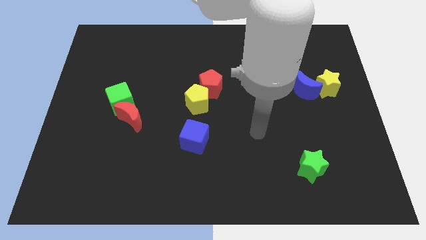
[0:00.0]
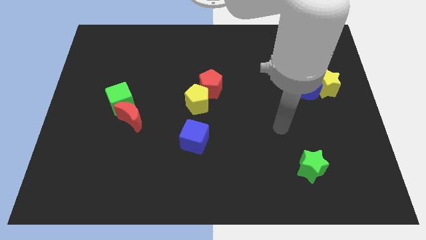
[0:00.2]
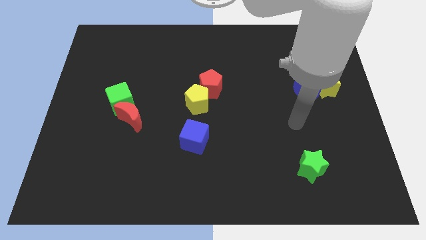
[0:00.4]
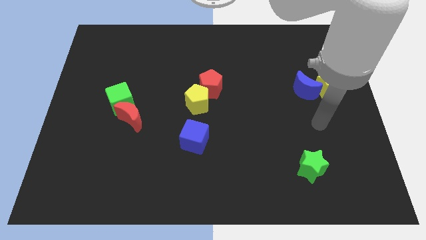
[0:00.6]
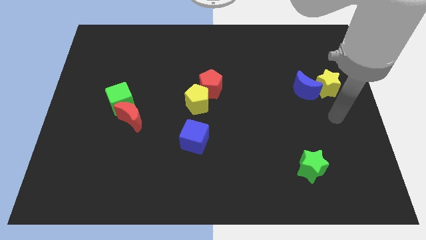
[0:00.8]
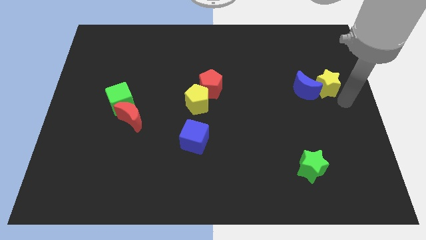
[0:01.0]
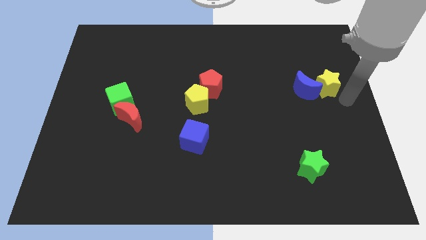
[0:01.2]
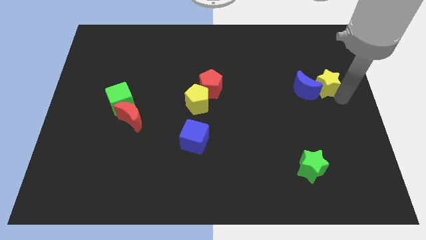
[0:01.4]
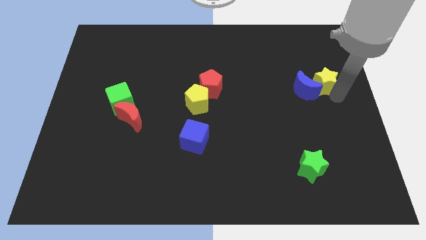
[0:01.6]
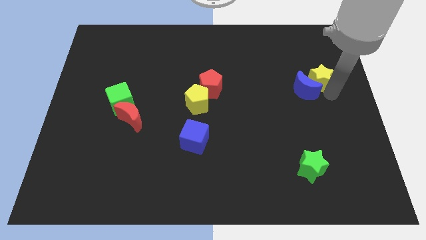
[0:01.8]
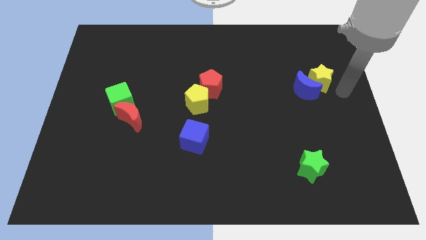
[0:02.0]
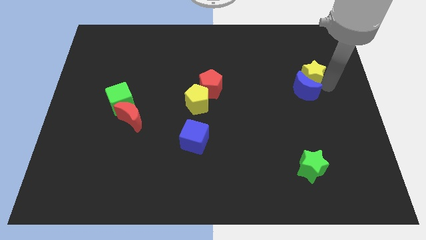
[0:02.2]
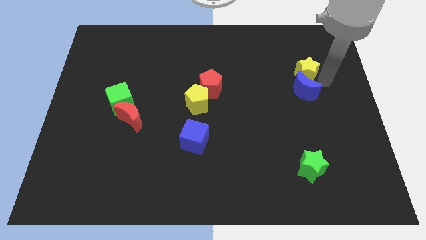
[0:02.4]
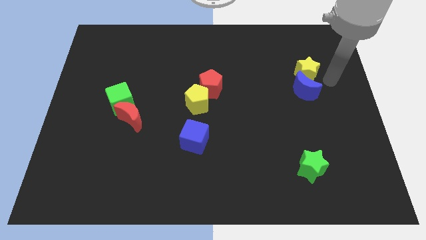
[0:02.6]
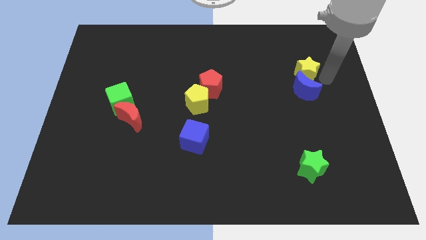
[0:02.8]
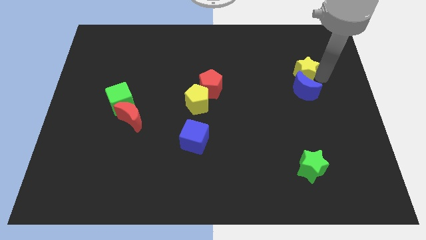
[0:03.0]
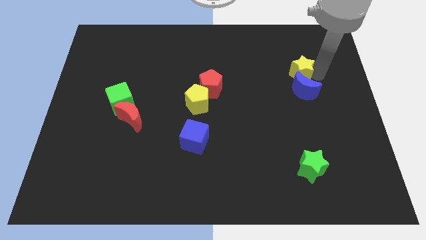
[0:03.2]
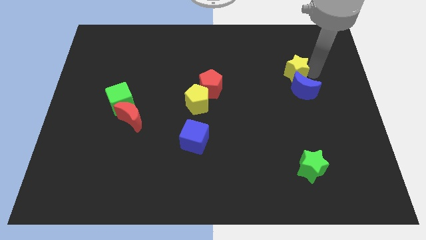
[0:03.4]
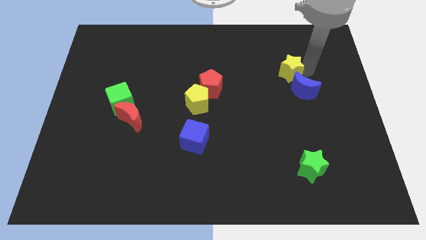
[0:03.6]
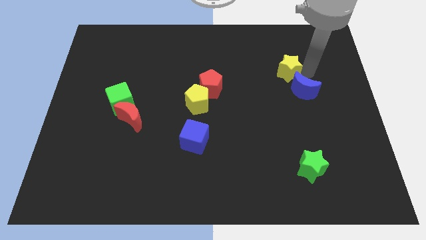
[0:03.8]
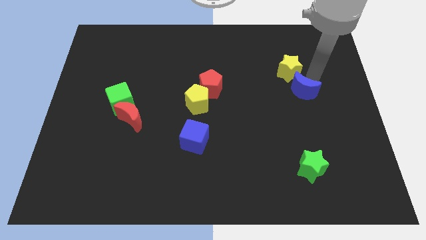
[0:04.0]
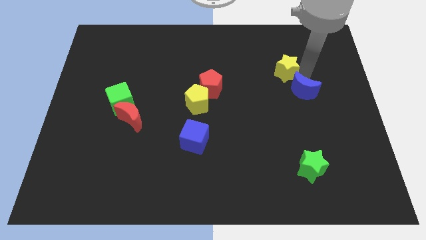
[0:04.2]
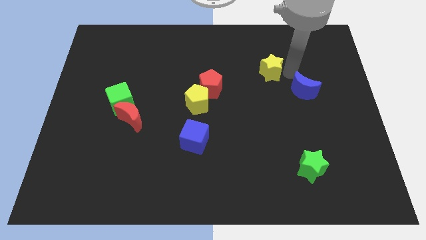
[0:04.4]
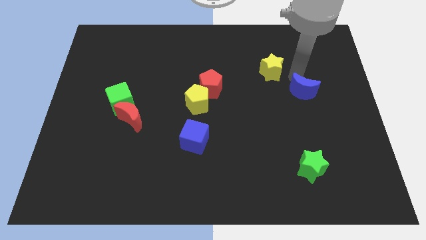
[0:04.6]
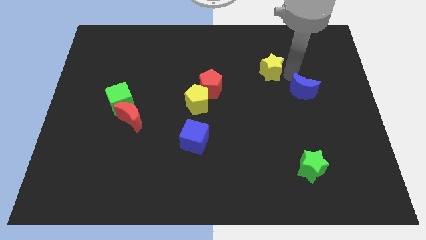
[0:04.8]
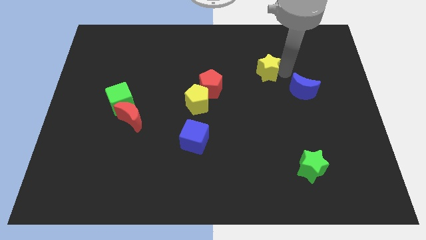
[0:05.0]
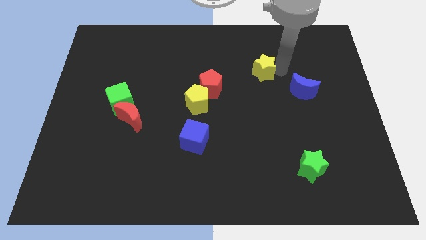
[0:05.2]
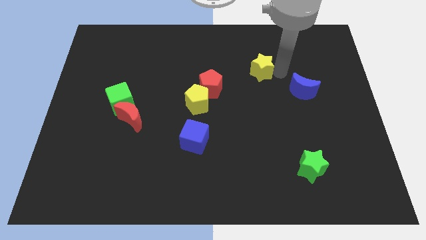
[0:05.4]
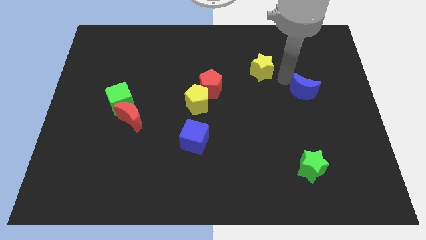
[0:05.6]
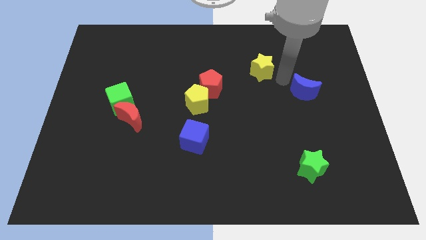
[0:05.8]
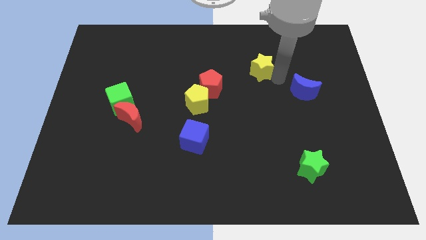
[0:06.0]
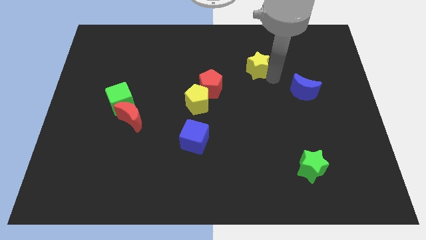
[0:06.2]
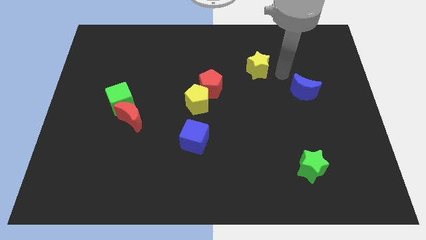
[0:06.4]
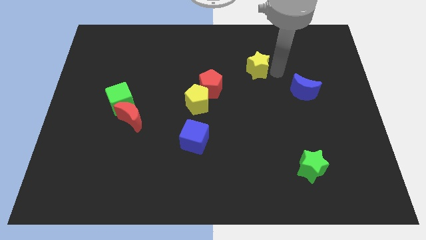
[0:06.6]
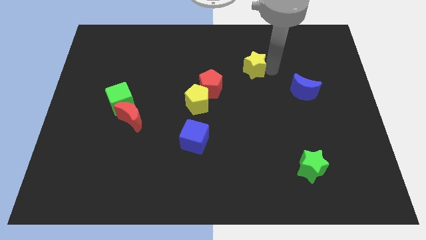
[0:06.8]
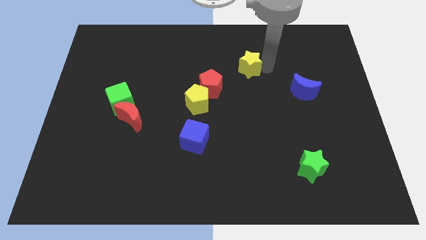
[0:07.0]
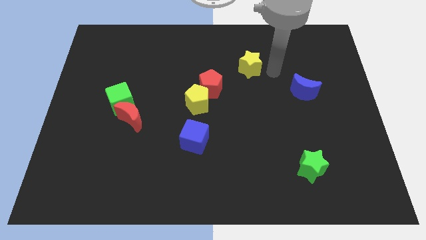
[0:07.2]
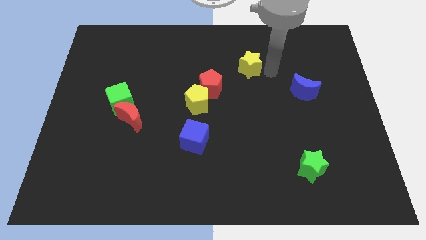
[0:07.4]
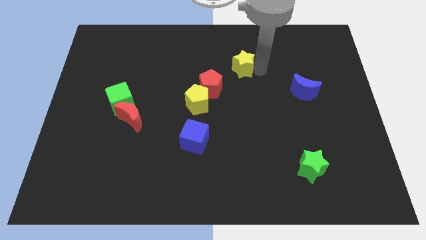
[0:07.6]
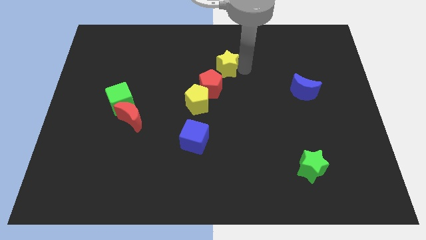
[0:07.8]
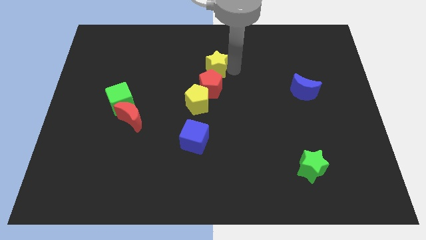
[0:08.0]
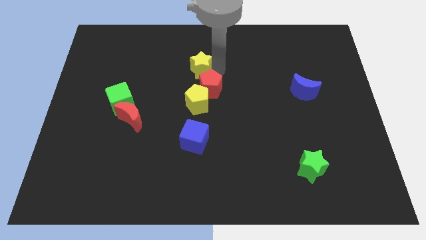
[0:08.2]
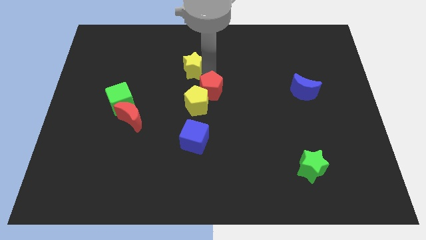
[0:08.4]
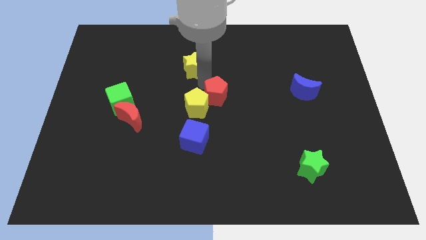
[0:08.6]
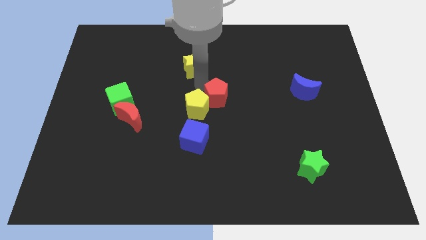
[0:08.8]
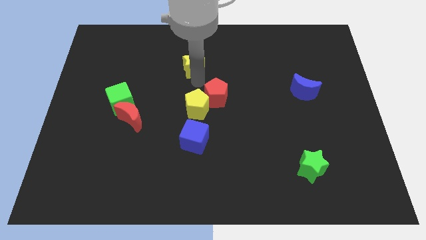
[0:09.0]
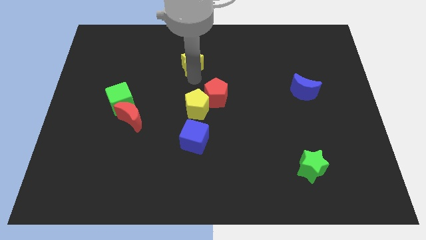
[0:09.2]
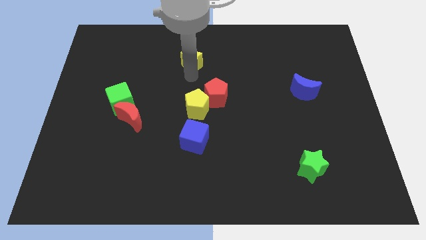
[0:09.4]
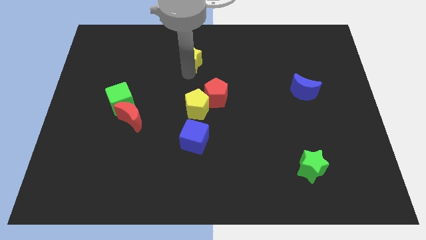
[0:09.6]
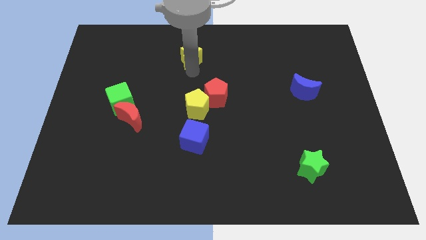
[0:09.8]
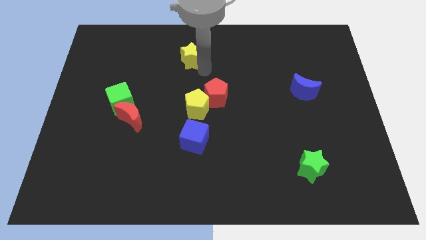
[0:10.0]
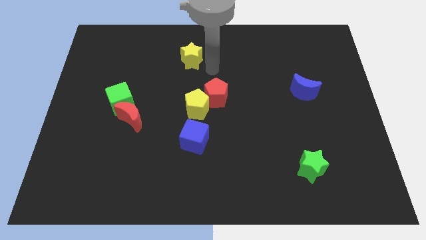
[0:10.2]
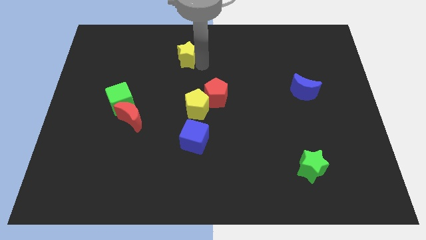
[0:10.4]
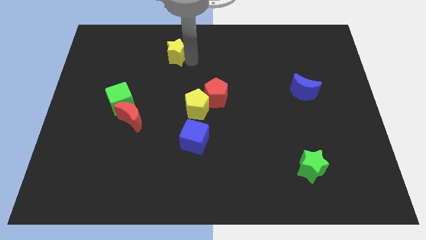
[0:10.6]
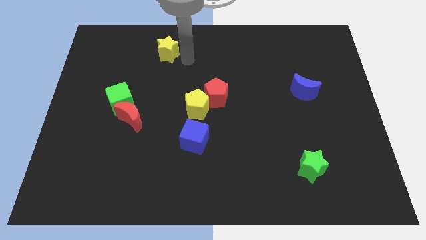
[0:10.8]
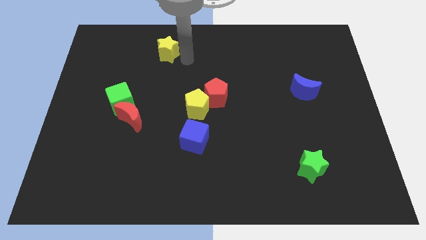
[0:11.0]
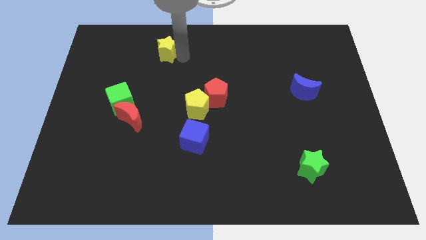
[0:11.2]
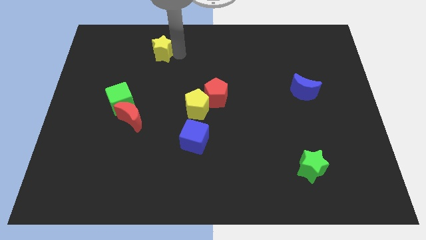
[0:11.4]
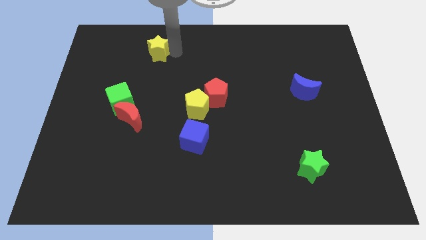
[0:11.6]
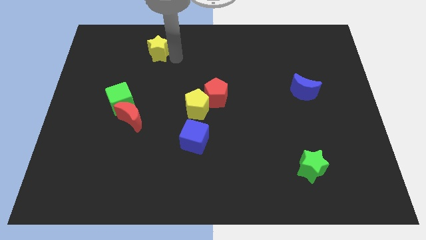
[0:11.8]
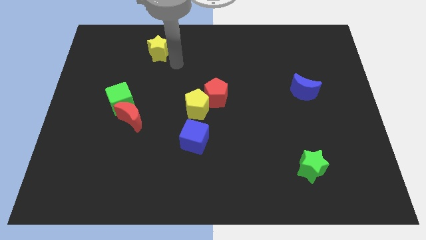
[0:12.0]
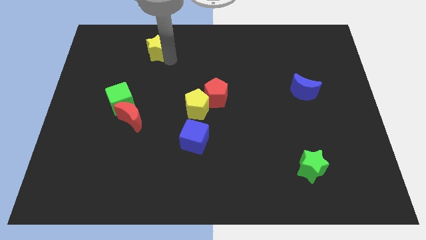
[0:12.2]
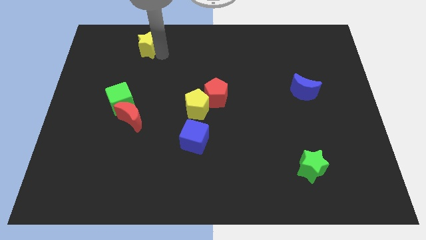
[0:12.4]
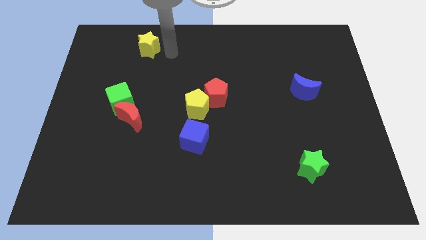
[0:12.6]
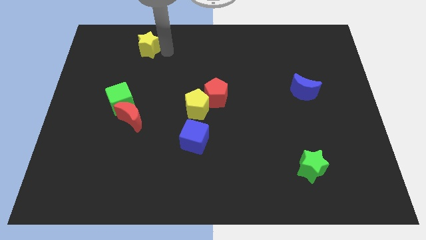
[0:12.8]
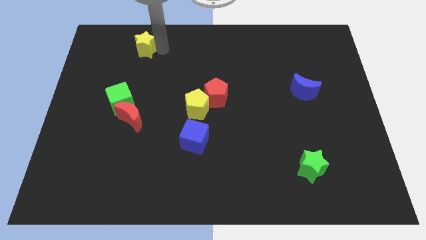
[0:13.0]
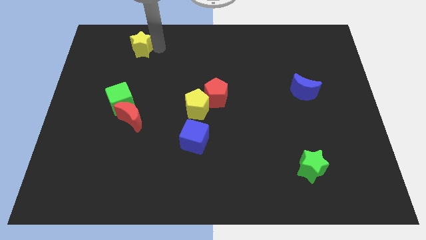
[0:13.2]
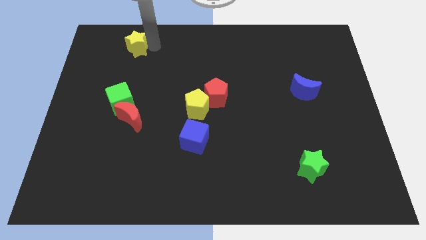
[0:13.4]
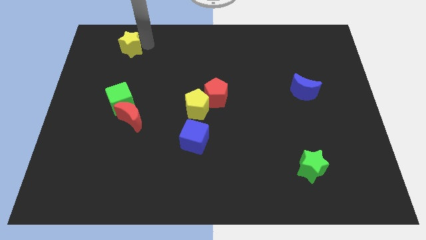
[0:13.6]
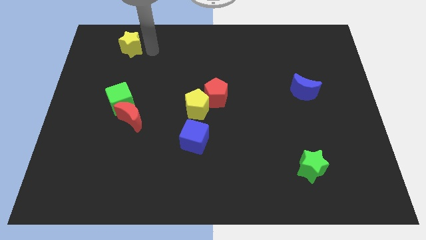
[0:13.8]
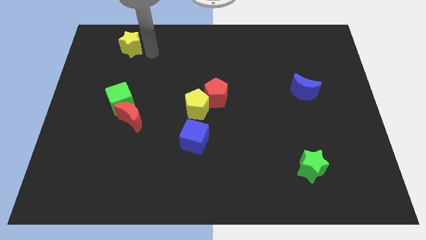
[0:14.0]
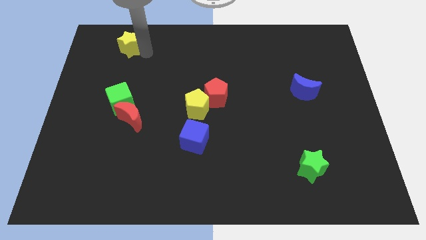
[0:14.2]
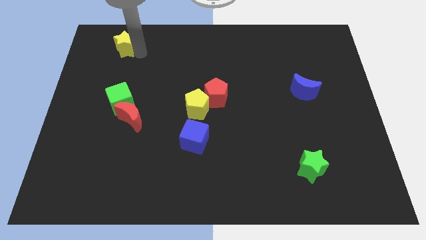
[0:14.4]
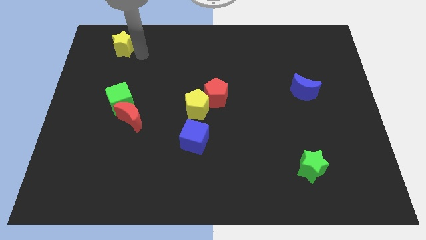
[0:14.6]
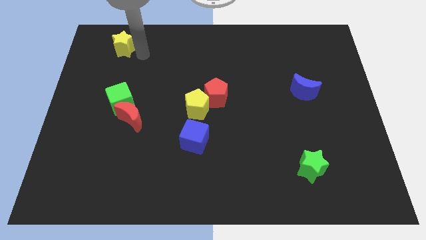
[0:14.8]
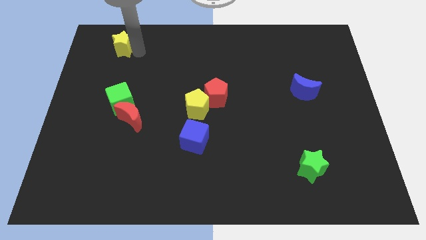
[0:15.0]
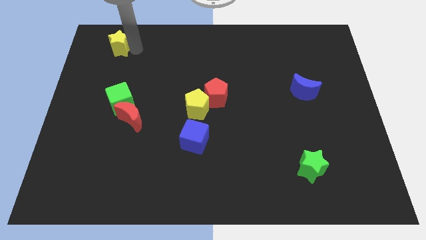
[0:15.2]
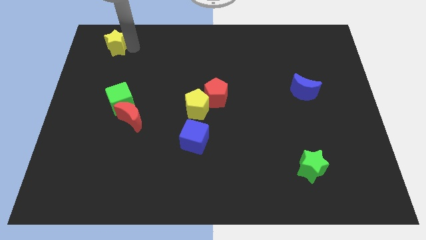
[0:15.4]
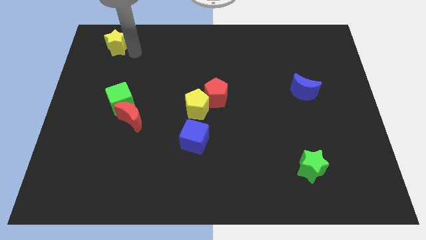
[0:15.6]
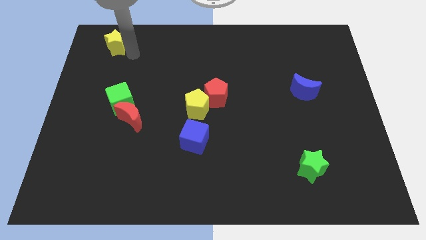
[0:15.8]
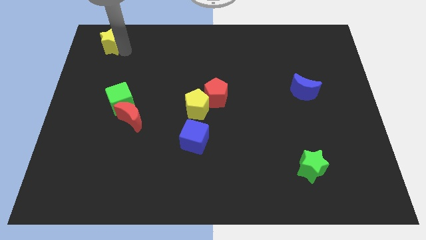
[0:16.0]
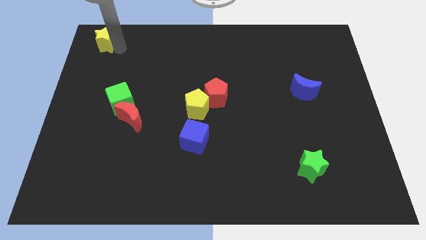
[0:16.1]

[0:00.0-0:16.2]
put the yellow star to the top left corner

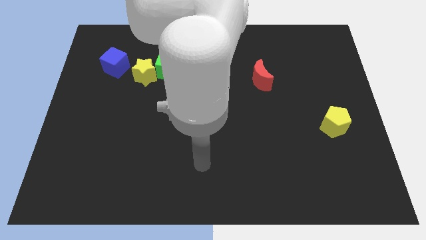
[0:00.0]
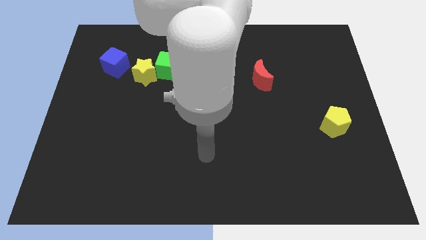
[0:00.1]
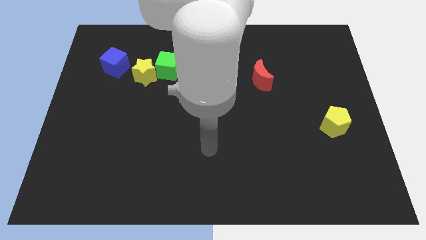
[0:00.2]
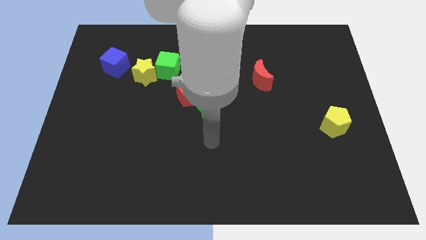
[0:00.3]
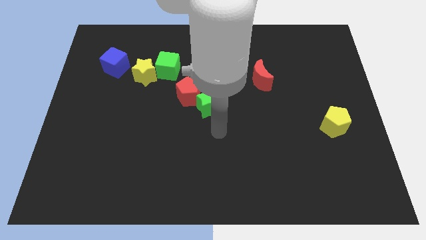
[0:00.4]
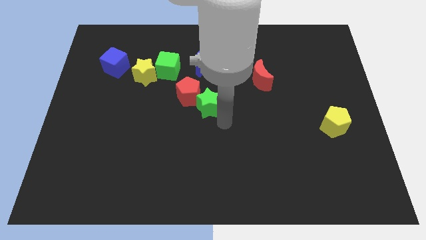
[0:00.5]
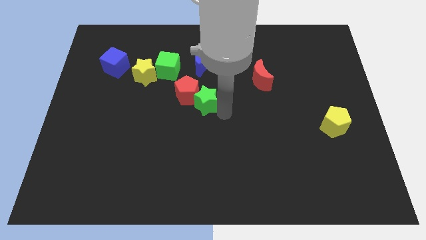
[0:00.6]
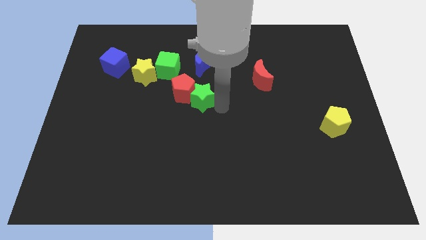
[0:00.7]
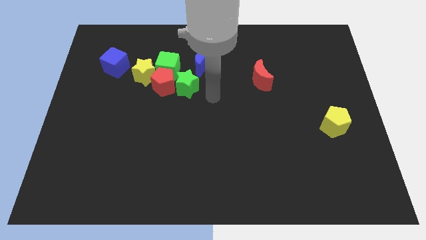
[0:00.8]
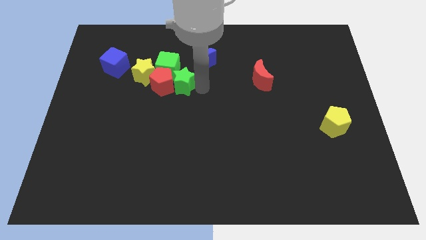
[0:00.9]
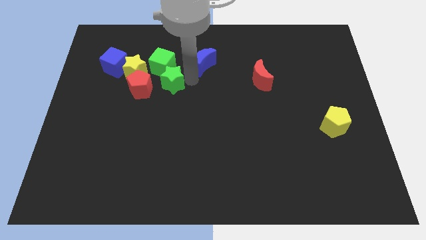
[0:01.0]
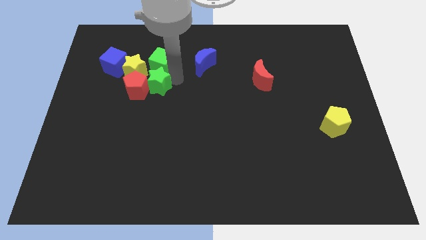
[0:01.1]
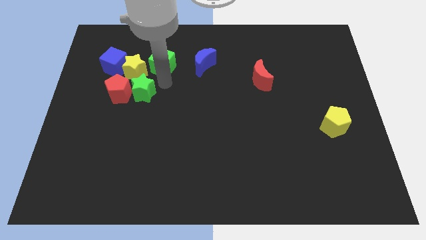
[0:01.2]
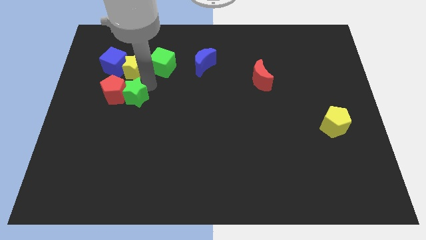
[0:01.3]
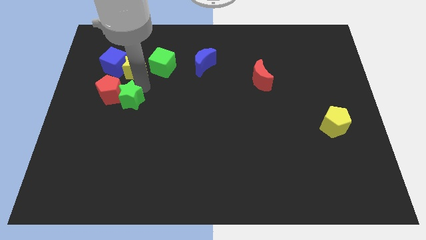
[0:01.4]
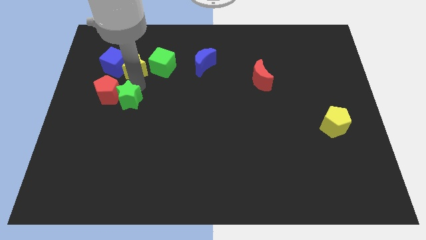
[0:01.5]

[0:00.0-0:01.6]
put the red pentagon to the left side of the board
